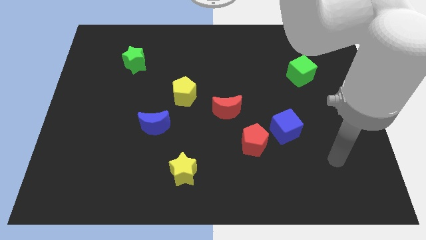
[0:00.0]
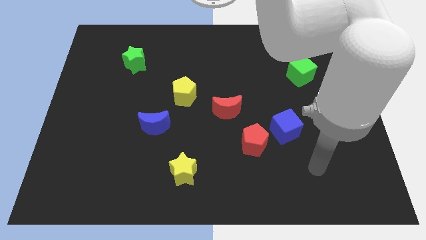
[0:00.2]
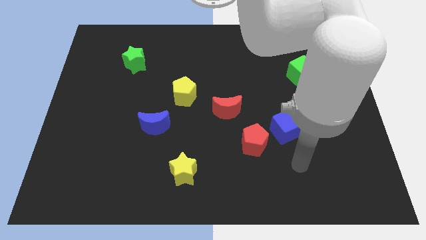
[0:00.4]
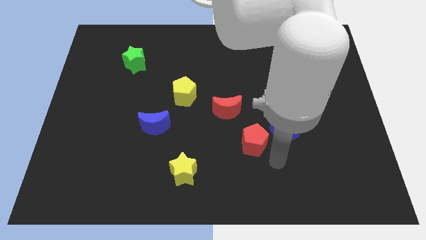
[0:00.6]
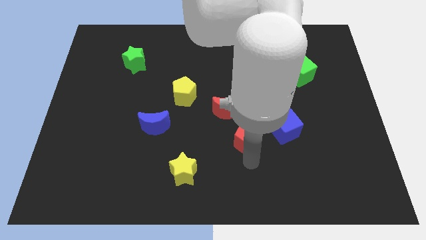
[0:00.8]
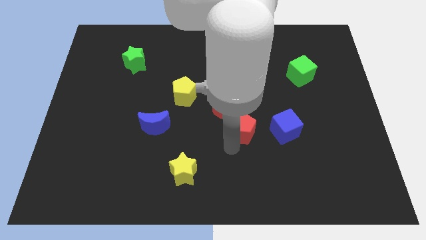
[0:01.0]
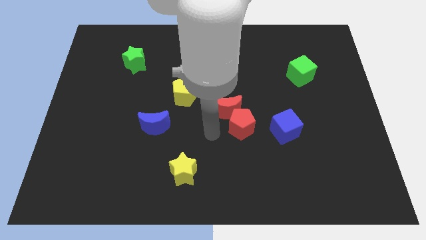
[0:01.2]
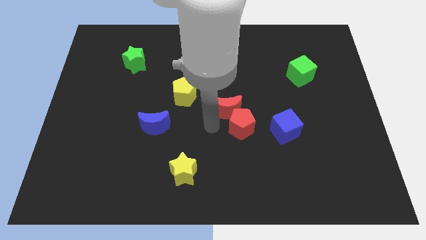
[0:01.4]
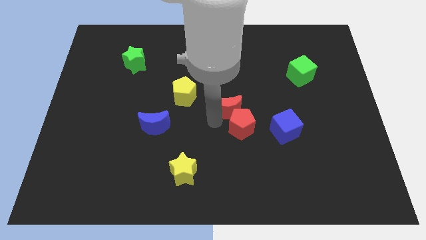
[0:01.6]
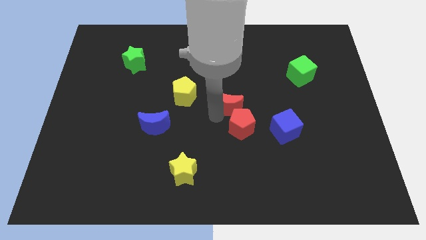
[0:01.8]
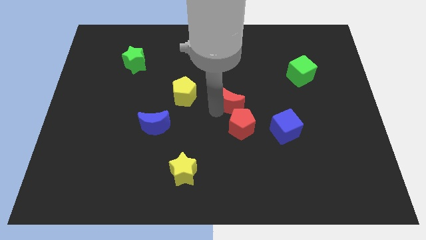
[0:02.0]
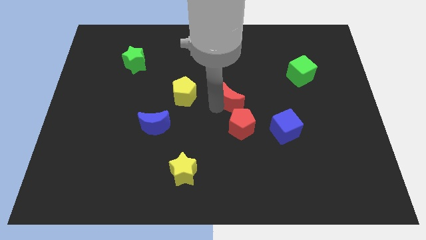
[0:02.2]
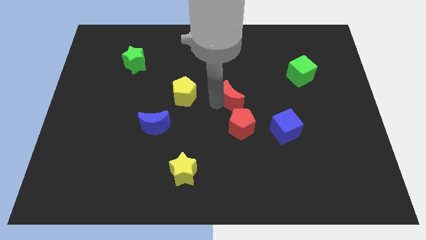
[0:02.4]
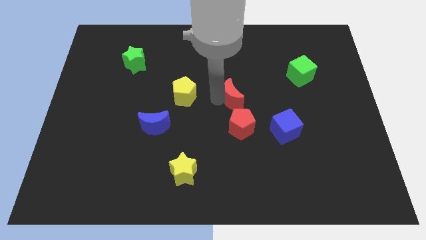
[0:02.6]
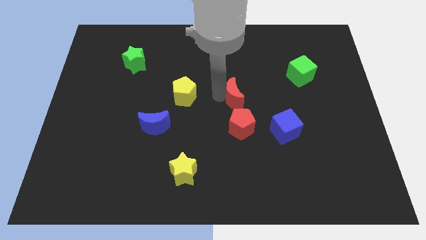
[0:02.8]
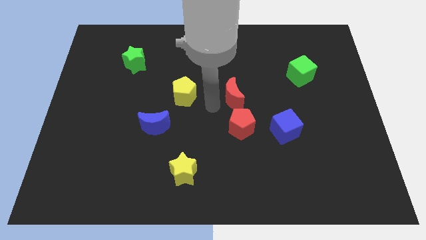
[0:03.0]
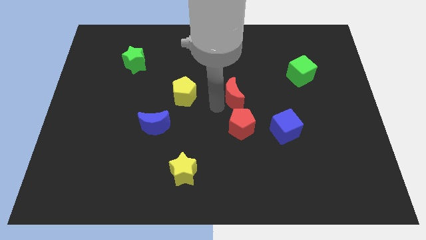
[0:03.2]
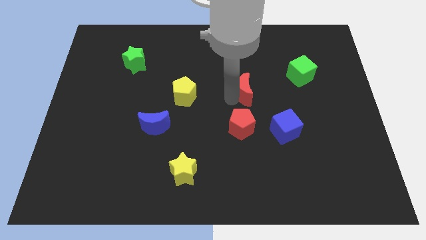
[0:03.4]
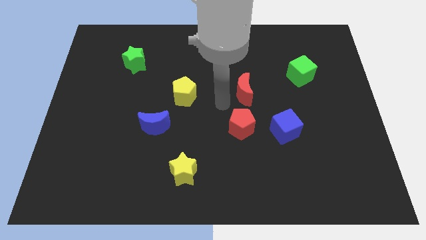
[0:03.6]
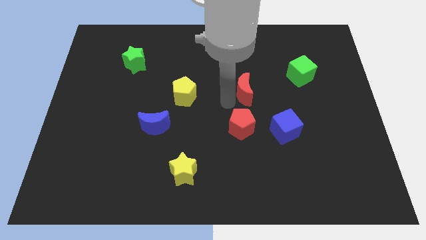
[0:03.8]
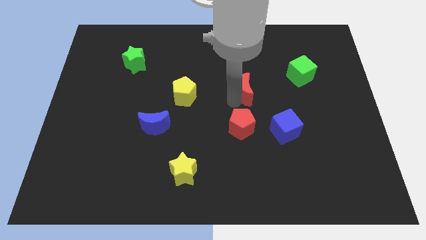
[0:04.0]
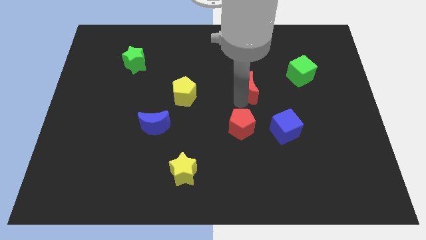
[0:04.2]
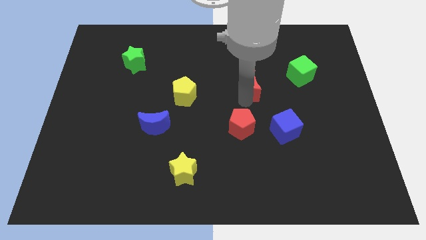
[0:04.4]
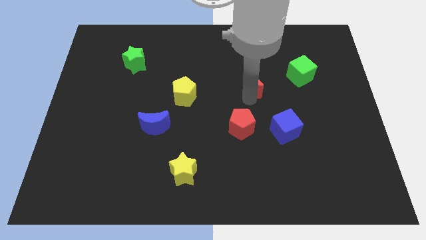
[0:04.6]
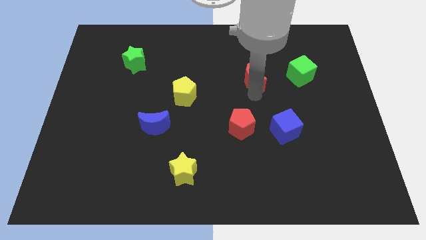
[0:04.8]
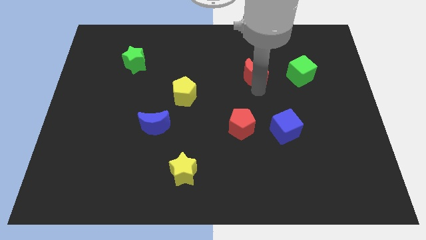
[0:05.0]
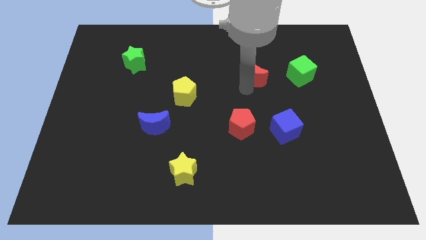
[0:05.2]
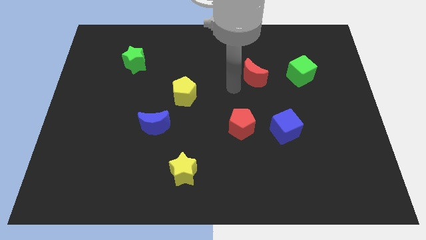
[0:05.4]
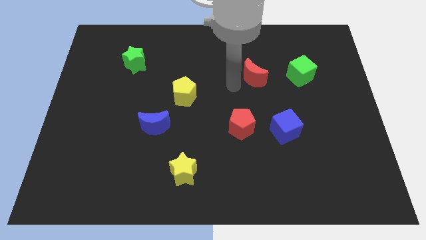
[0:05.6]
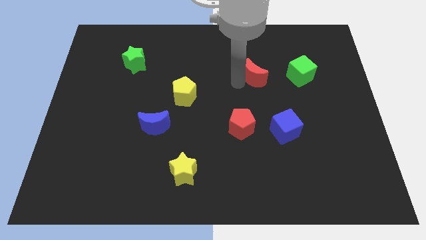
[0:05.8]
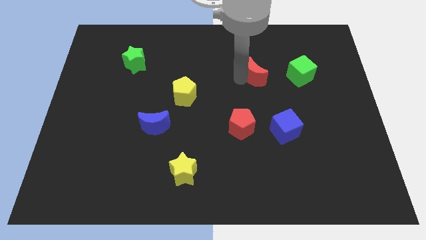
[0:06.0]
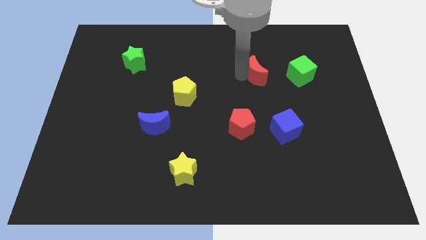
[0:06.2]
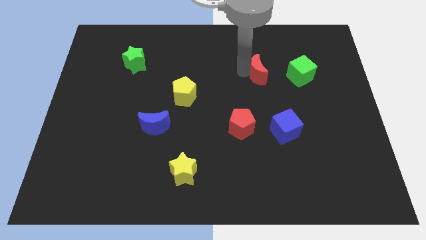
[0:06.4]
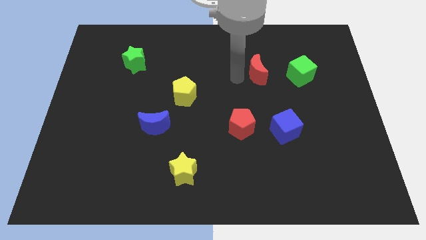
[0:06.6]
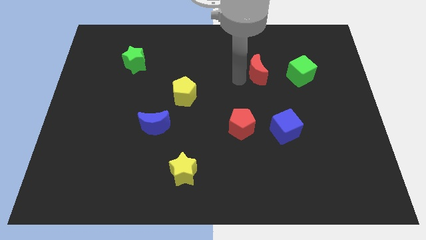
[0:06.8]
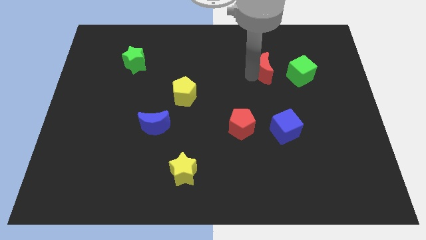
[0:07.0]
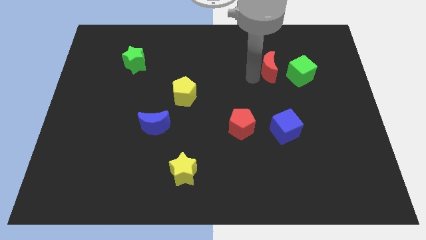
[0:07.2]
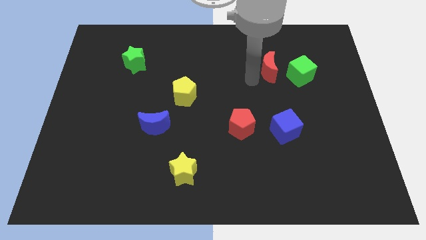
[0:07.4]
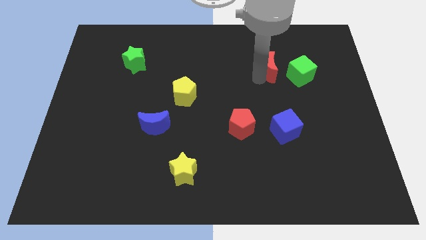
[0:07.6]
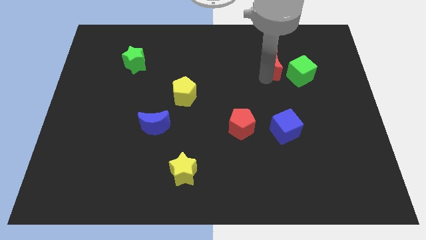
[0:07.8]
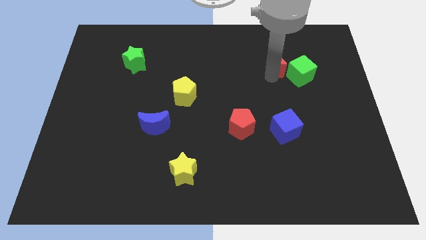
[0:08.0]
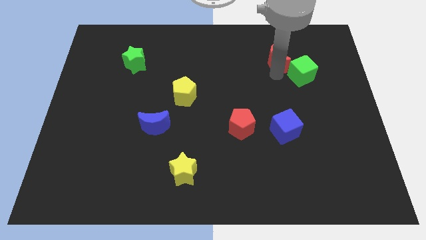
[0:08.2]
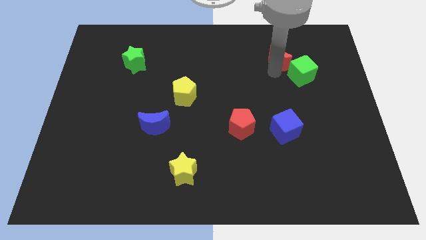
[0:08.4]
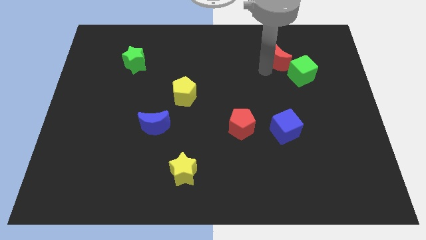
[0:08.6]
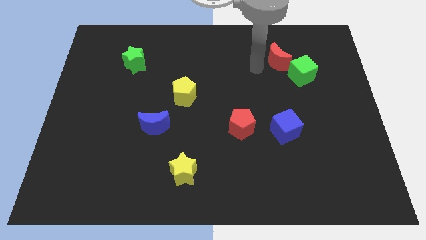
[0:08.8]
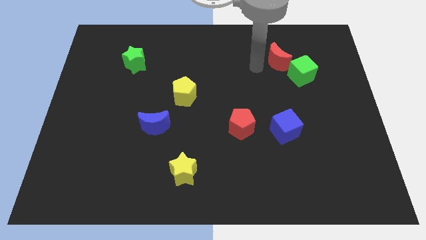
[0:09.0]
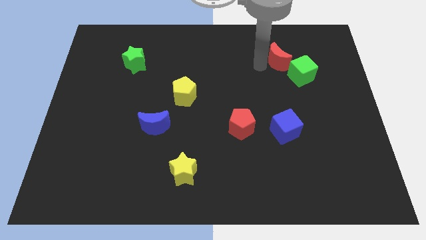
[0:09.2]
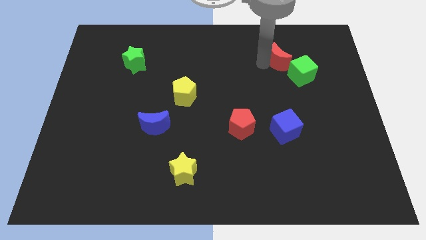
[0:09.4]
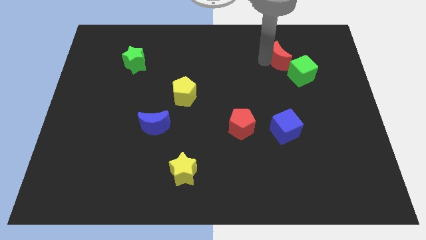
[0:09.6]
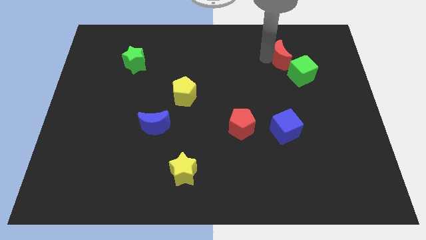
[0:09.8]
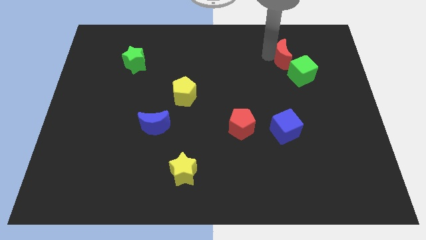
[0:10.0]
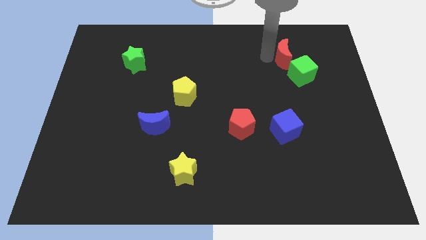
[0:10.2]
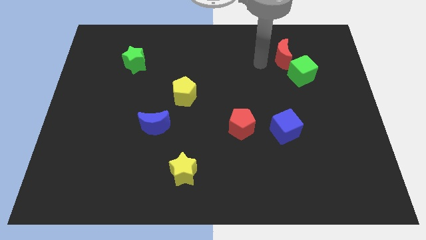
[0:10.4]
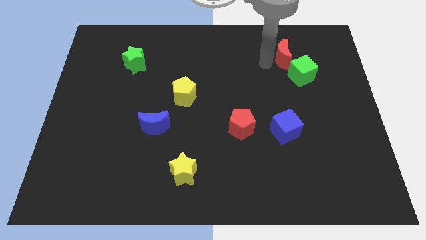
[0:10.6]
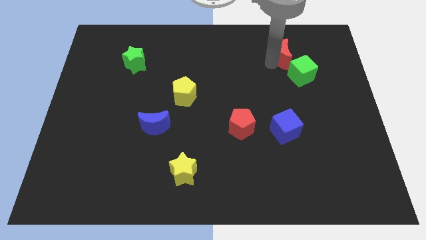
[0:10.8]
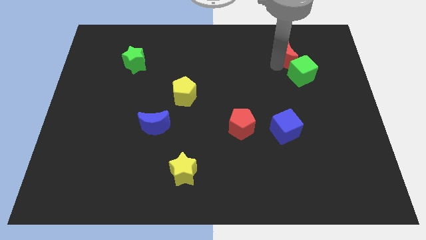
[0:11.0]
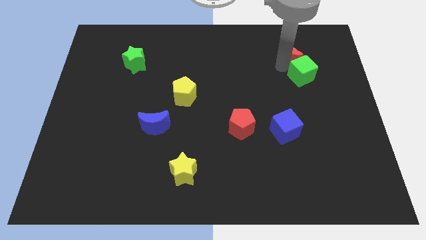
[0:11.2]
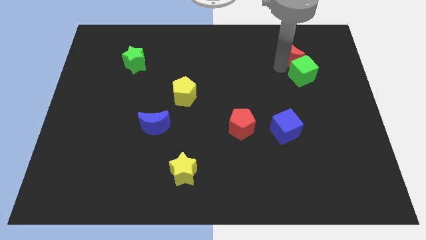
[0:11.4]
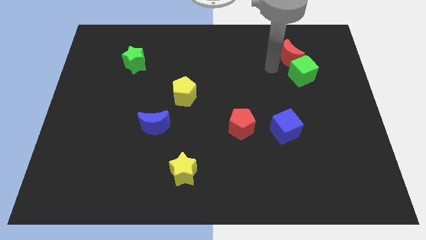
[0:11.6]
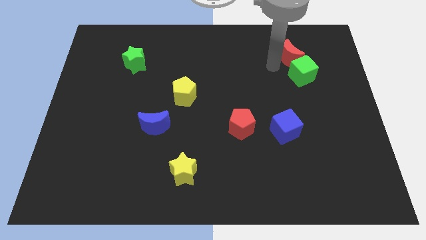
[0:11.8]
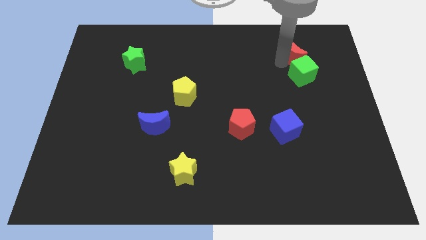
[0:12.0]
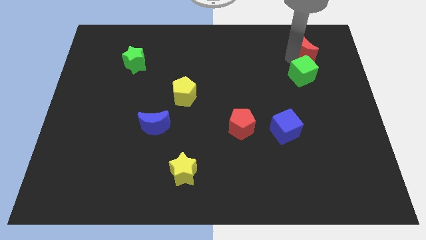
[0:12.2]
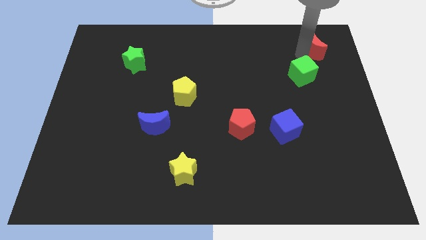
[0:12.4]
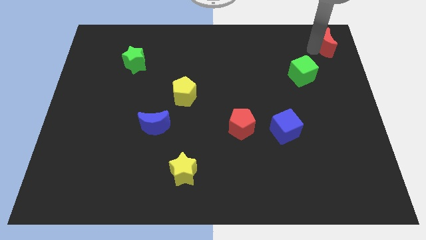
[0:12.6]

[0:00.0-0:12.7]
slide the red moon to the top right corner
